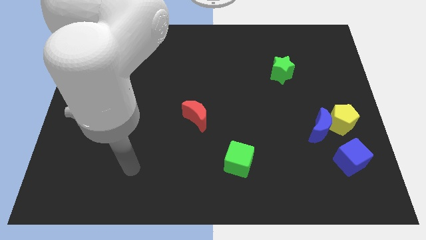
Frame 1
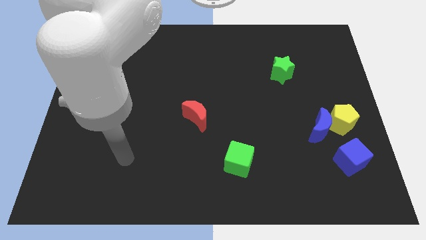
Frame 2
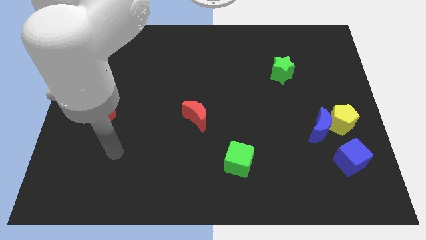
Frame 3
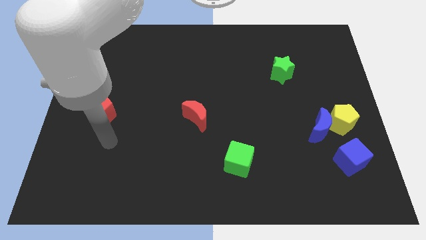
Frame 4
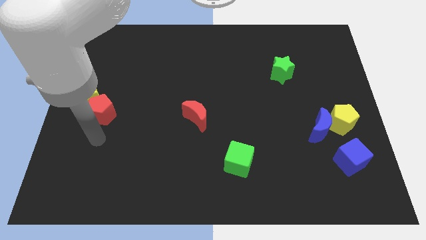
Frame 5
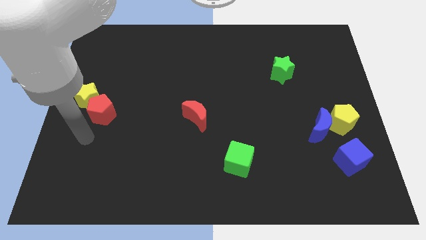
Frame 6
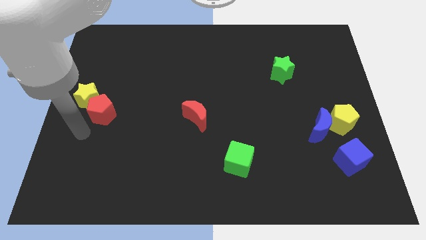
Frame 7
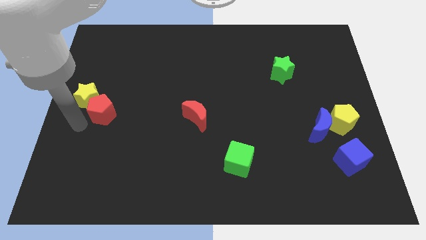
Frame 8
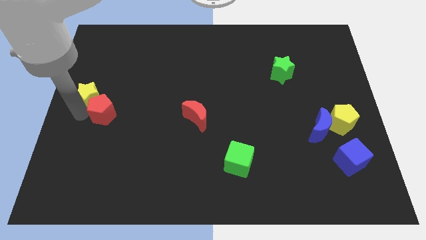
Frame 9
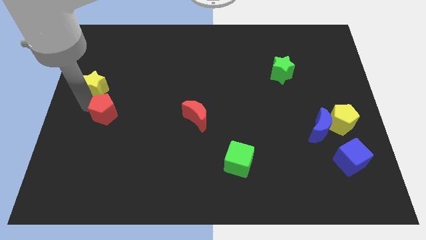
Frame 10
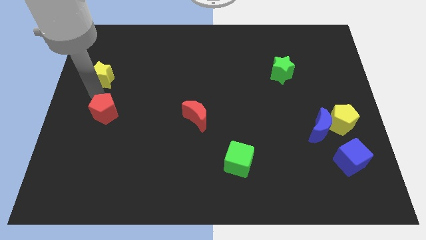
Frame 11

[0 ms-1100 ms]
separate the red pentagon from the yellow star

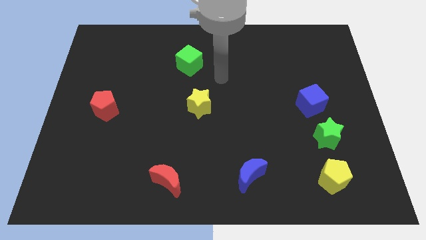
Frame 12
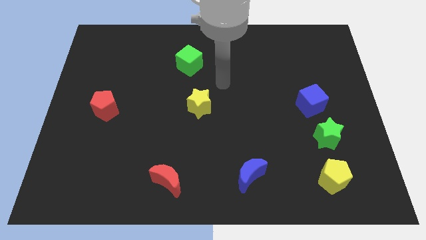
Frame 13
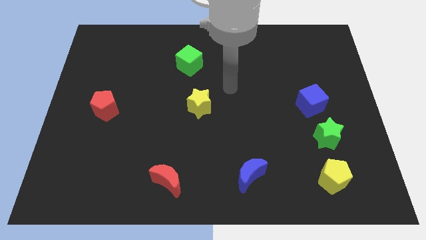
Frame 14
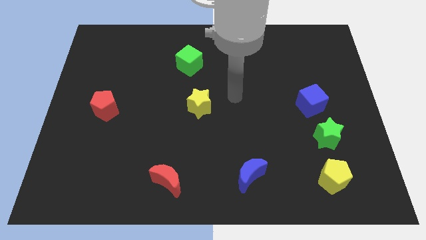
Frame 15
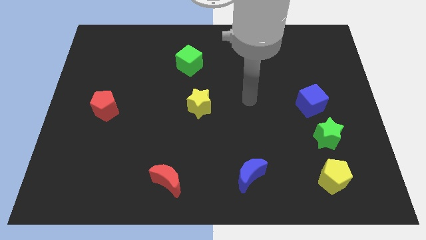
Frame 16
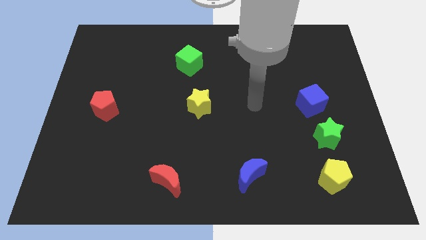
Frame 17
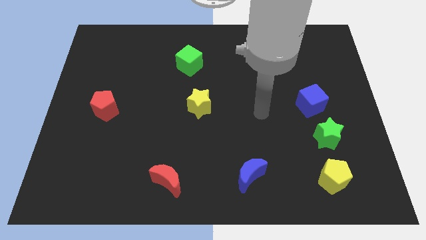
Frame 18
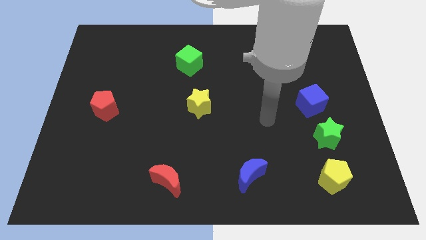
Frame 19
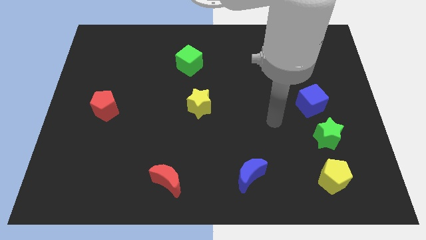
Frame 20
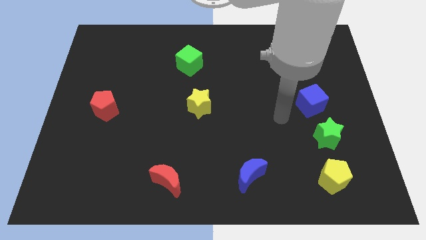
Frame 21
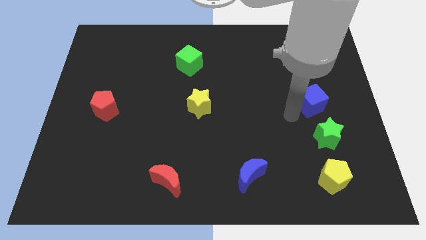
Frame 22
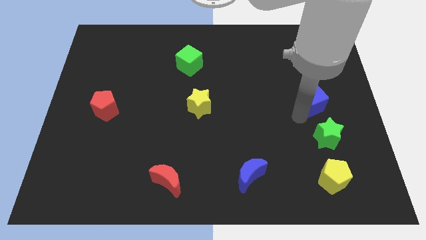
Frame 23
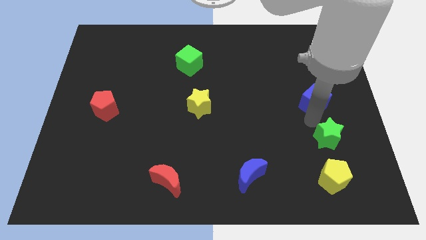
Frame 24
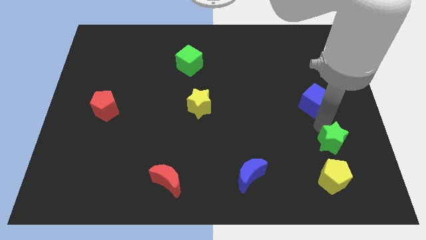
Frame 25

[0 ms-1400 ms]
separate the blue cube from the green star

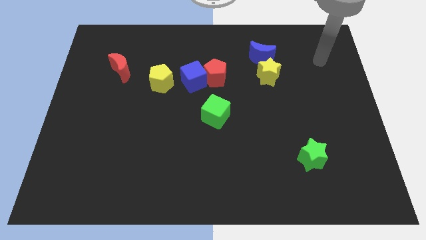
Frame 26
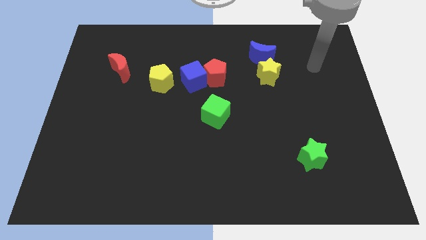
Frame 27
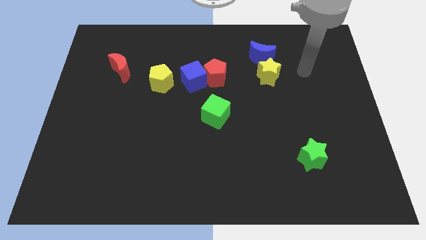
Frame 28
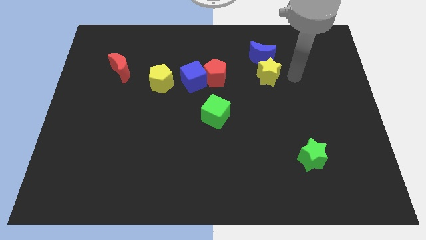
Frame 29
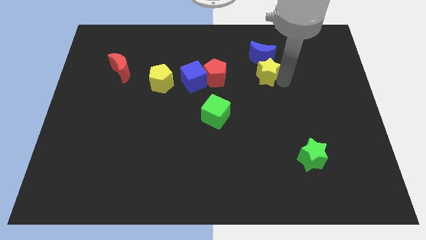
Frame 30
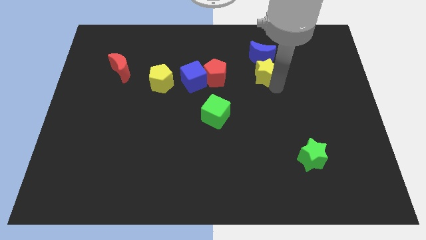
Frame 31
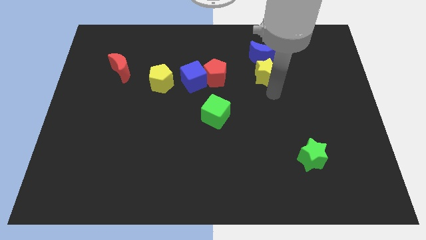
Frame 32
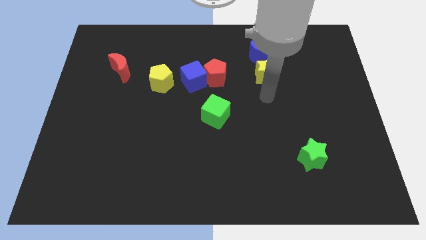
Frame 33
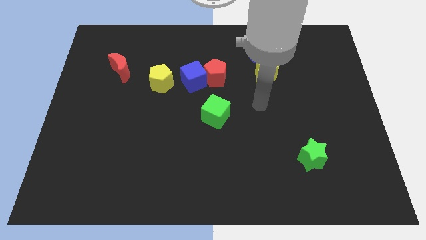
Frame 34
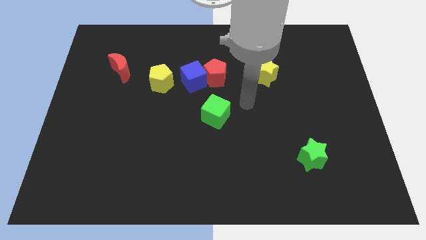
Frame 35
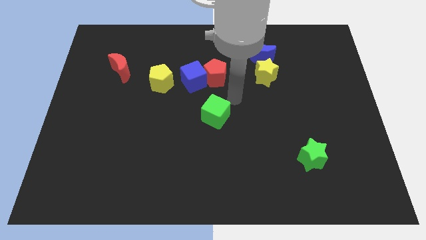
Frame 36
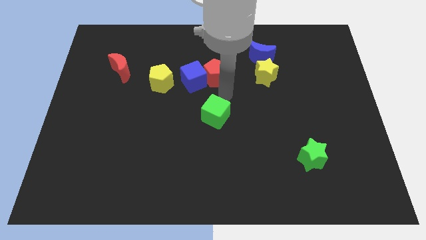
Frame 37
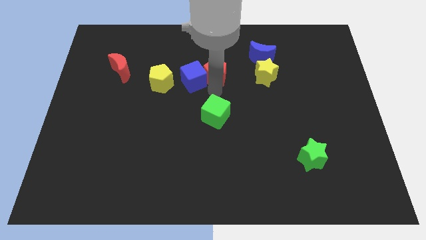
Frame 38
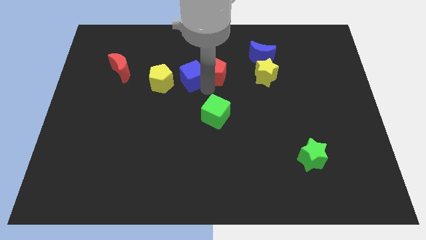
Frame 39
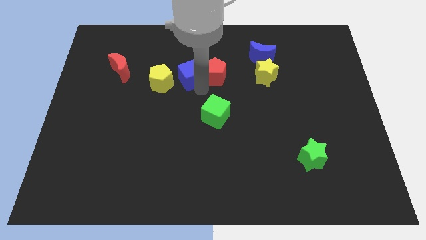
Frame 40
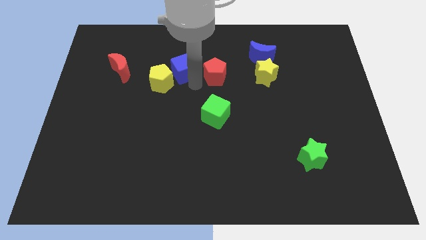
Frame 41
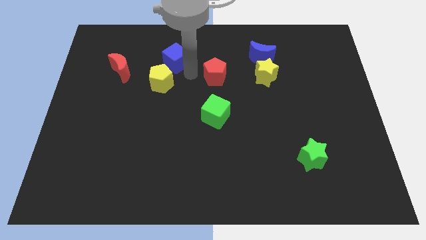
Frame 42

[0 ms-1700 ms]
pull the red pentagon apart from the blue cube

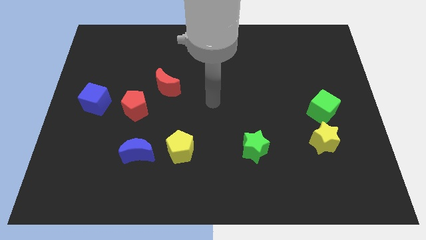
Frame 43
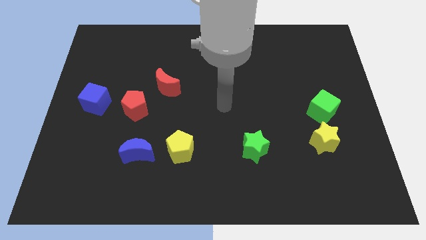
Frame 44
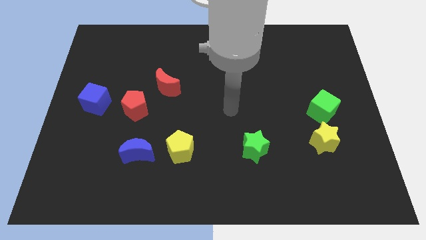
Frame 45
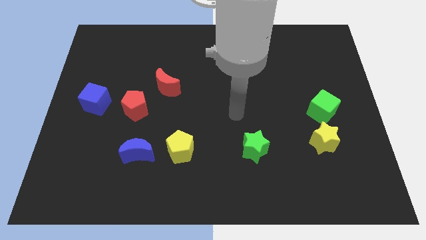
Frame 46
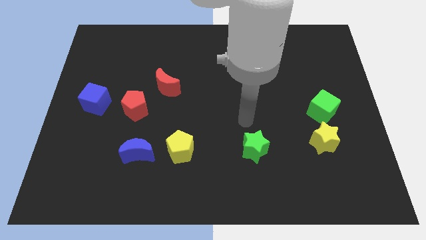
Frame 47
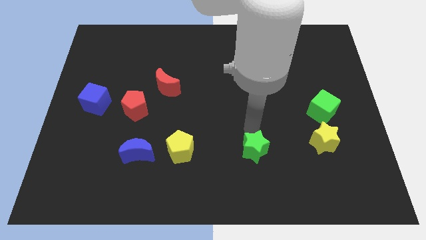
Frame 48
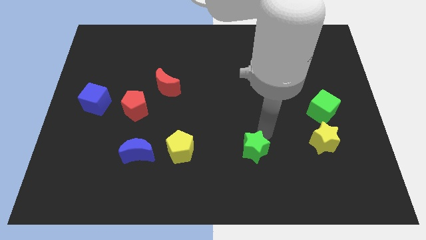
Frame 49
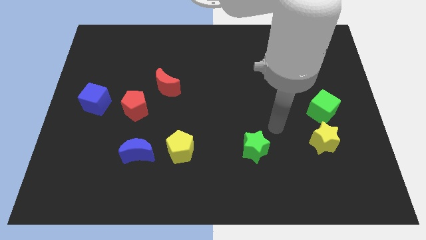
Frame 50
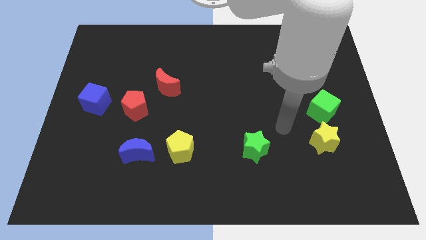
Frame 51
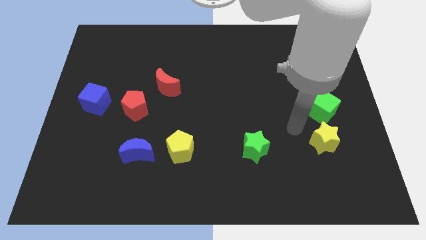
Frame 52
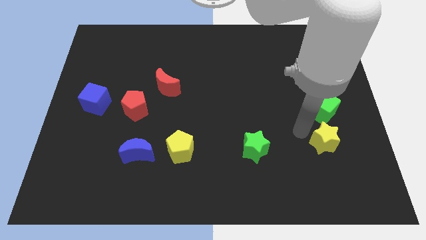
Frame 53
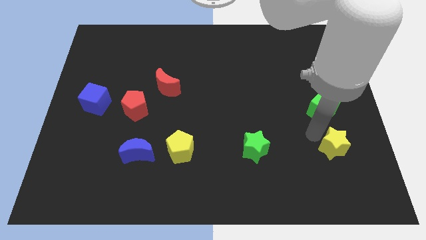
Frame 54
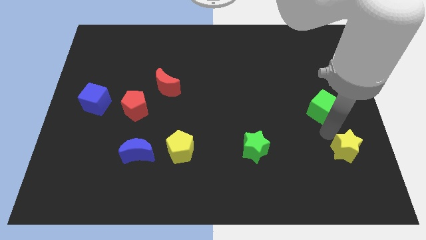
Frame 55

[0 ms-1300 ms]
move the green cube away from the yellow star

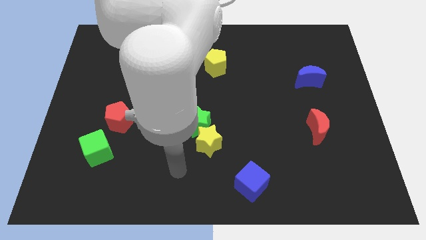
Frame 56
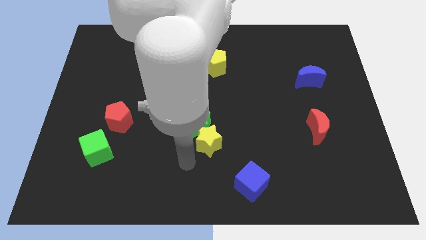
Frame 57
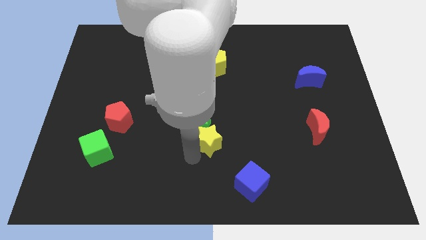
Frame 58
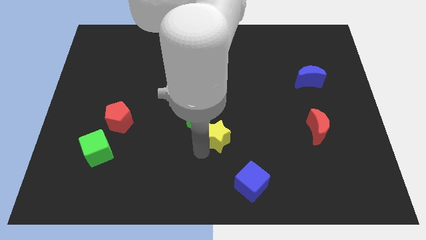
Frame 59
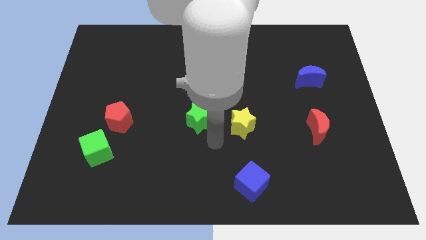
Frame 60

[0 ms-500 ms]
pull the green star apart from the yellow star

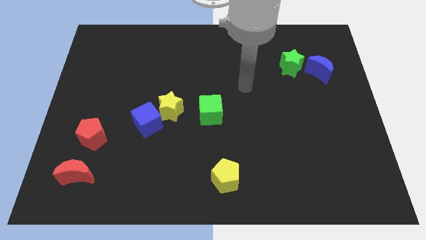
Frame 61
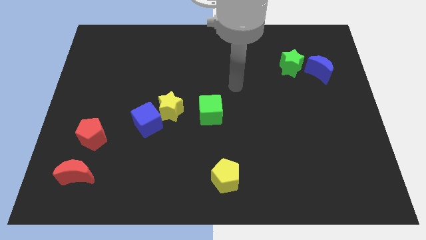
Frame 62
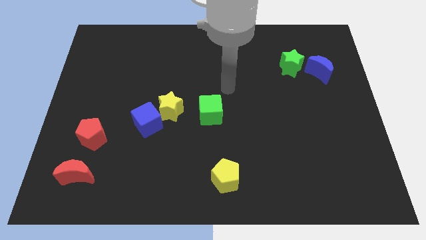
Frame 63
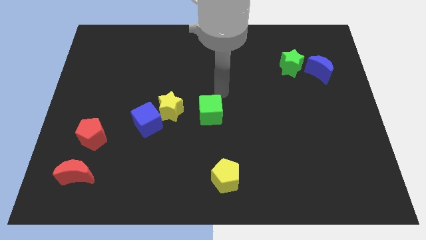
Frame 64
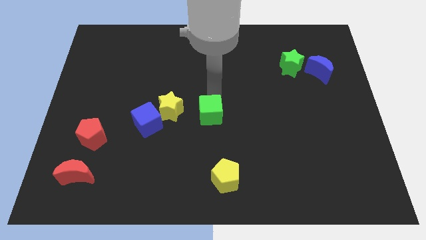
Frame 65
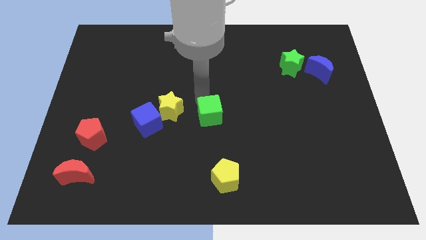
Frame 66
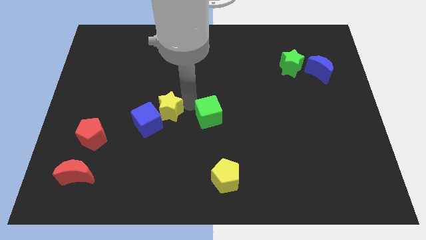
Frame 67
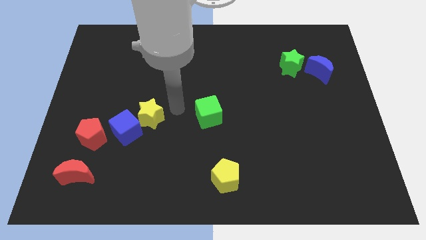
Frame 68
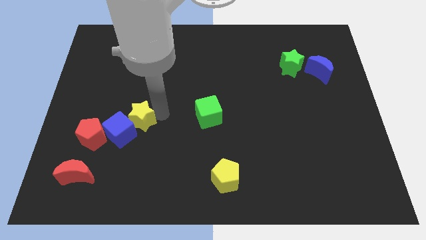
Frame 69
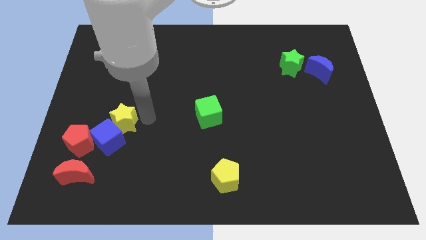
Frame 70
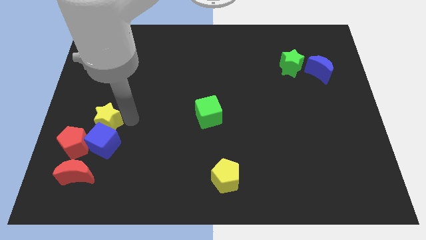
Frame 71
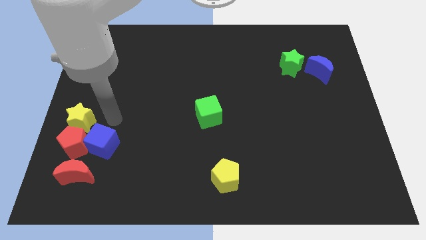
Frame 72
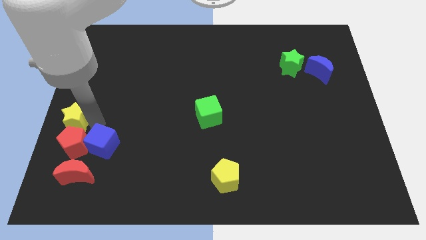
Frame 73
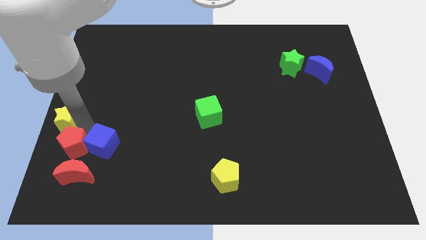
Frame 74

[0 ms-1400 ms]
pull the blue cube apart from the yellow star

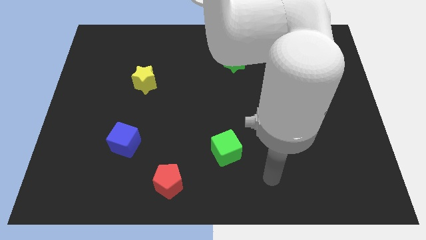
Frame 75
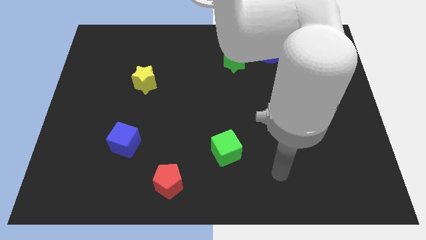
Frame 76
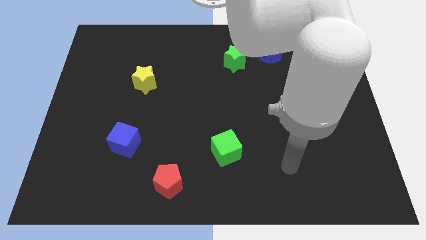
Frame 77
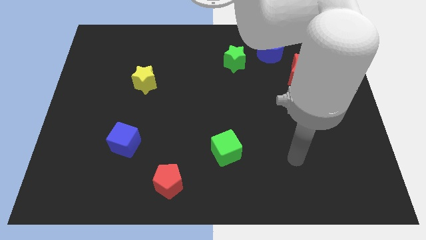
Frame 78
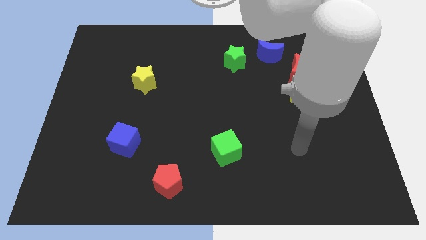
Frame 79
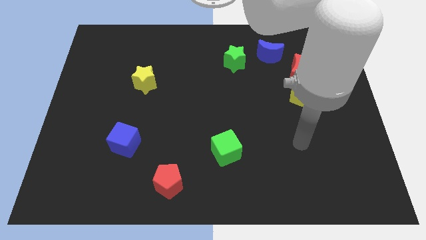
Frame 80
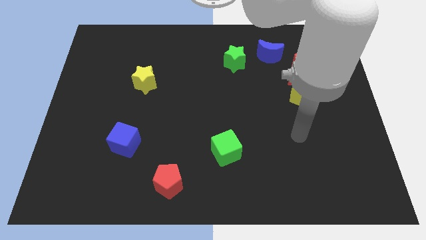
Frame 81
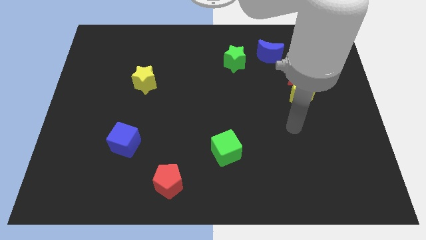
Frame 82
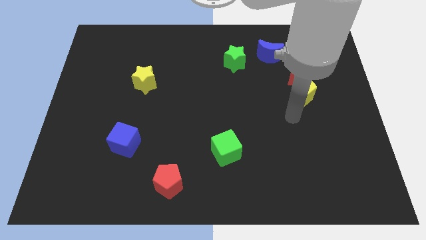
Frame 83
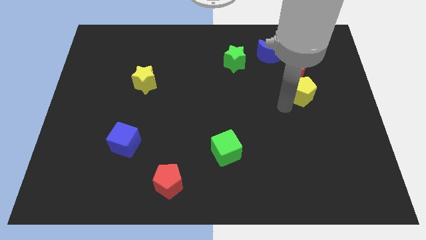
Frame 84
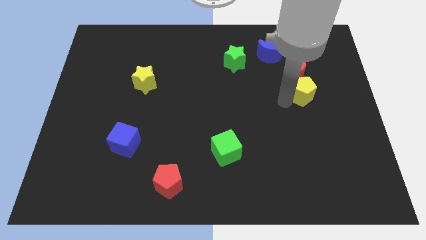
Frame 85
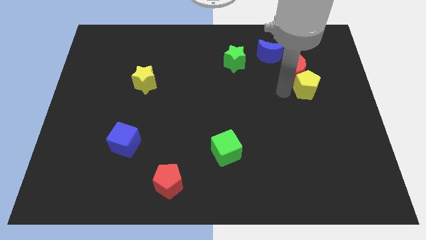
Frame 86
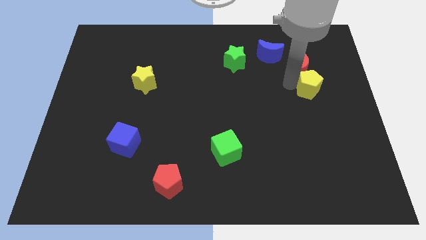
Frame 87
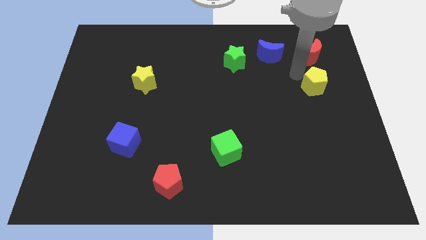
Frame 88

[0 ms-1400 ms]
separate the yellow pentagon from the red moon

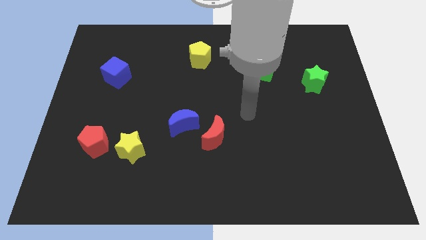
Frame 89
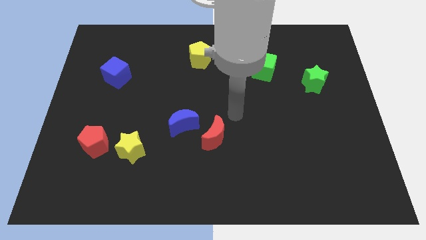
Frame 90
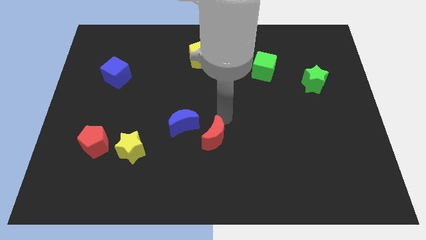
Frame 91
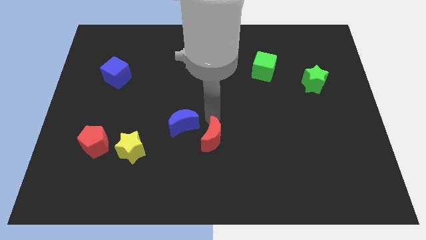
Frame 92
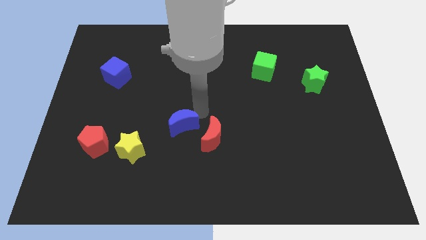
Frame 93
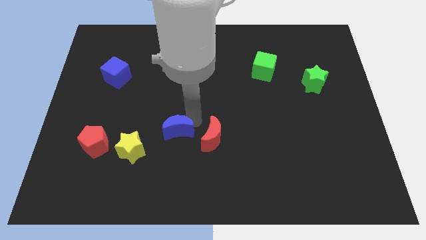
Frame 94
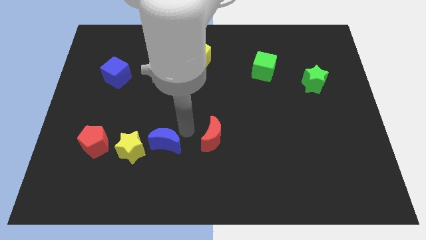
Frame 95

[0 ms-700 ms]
pull the red moon apart from the blue moon
